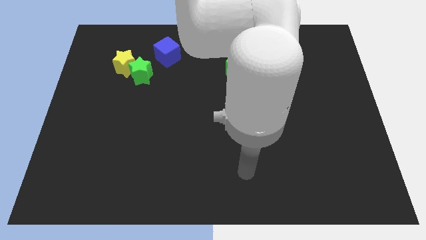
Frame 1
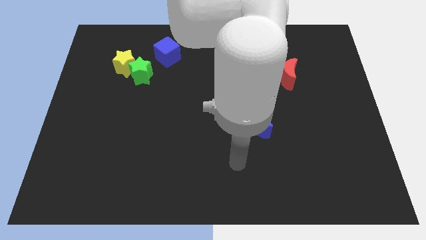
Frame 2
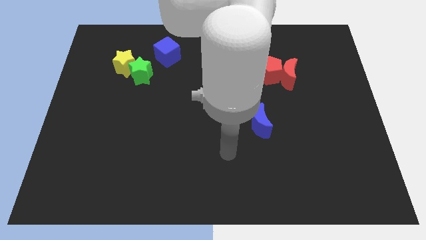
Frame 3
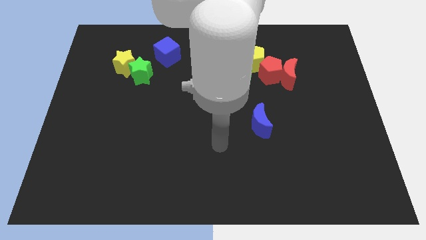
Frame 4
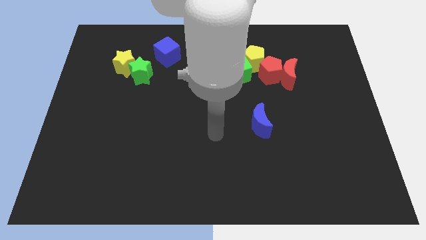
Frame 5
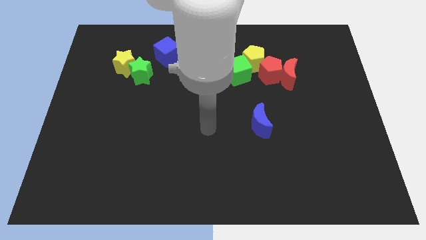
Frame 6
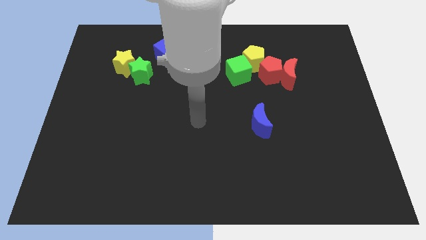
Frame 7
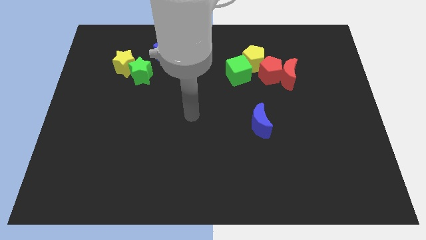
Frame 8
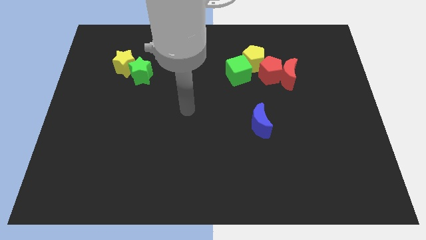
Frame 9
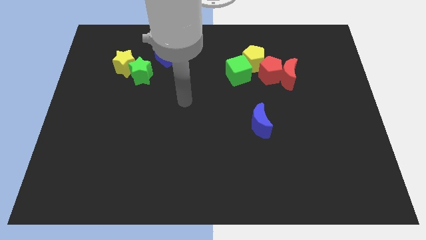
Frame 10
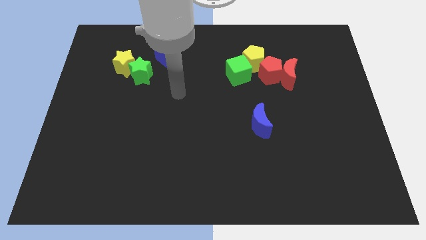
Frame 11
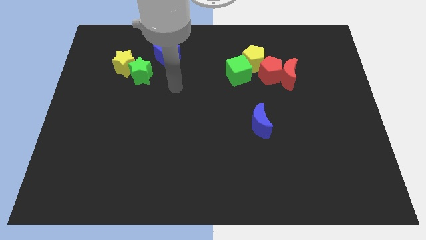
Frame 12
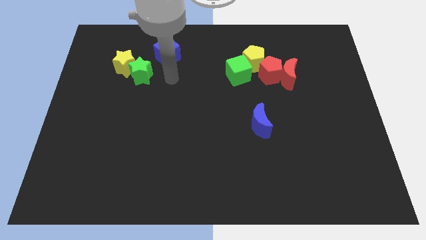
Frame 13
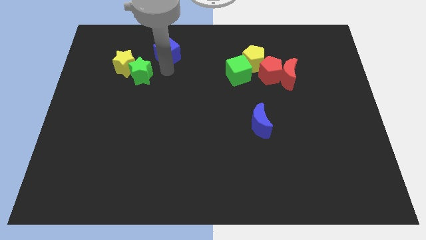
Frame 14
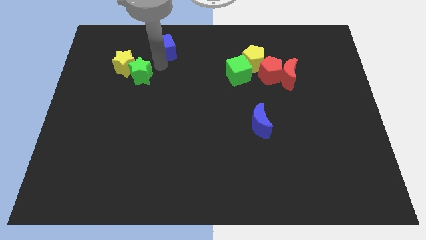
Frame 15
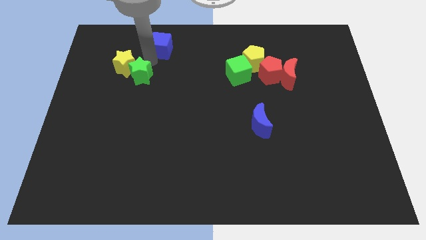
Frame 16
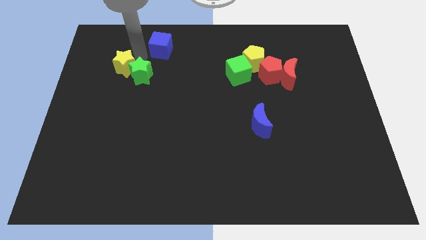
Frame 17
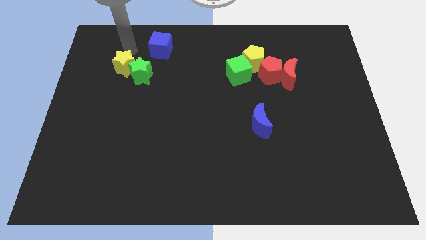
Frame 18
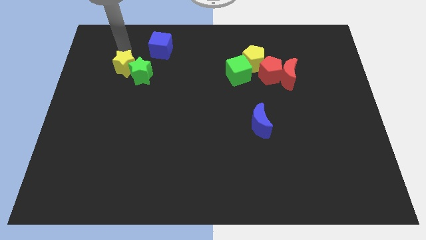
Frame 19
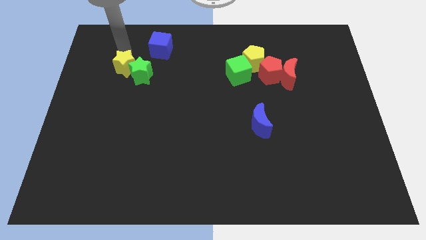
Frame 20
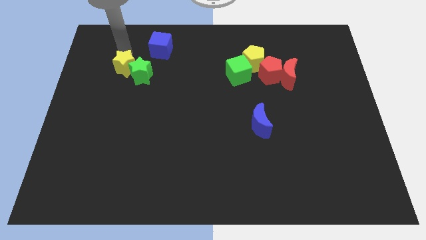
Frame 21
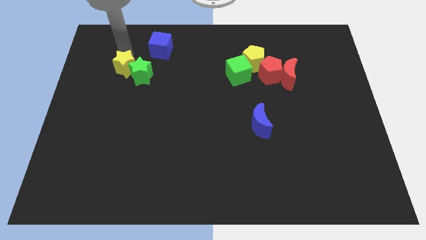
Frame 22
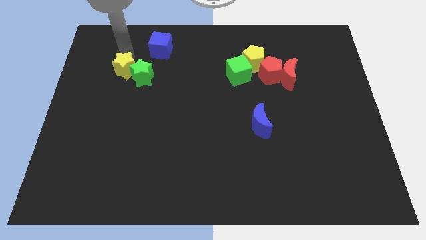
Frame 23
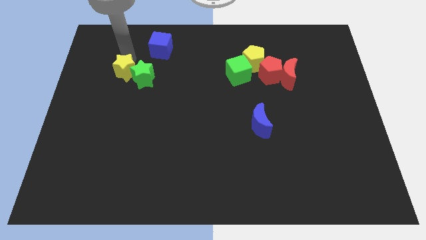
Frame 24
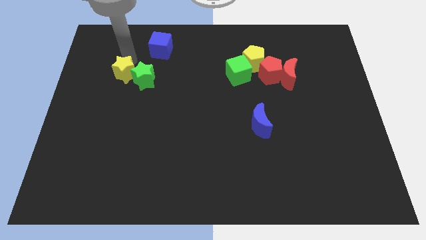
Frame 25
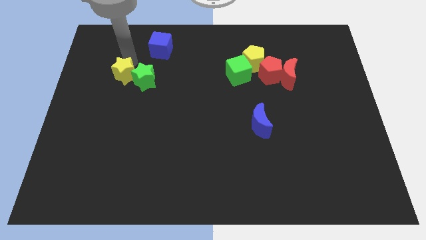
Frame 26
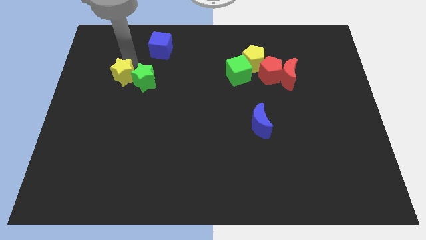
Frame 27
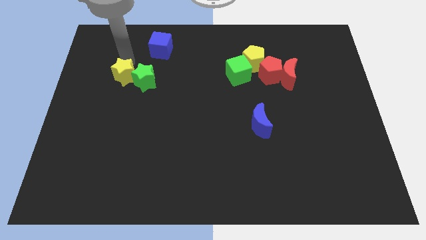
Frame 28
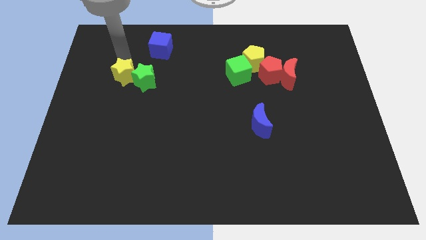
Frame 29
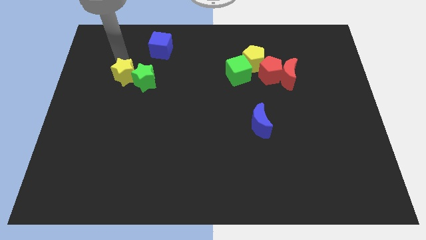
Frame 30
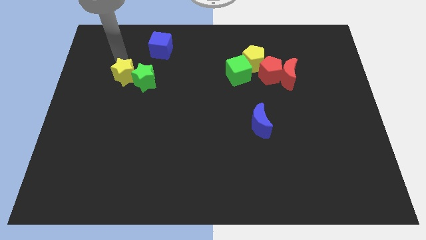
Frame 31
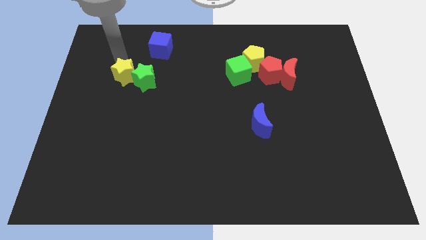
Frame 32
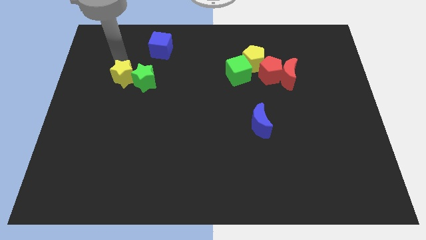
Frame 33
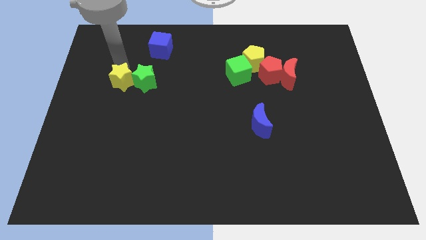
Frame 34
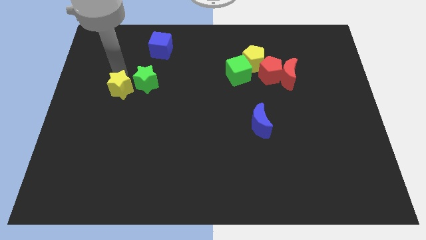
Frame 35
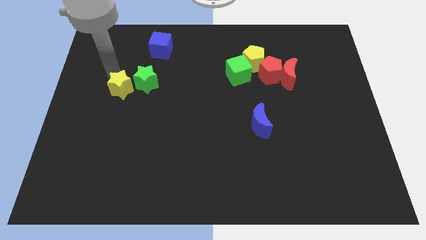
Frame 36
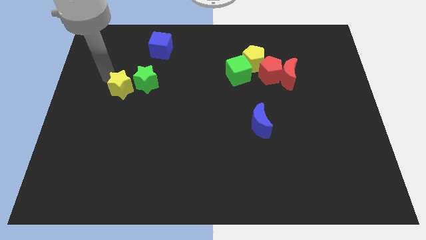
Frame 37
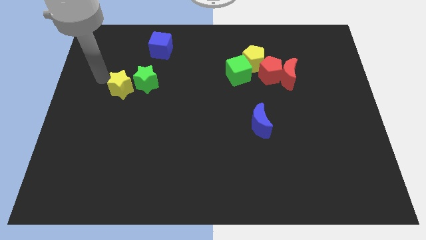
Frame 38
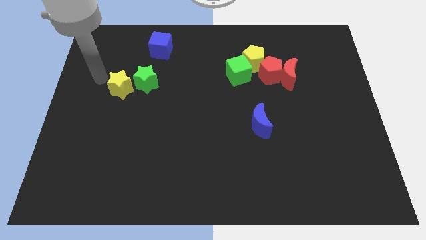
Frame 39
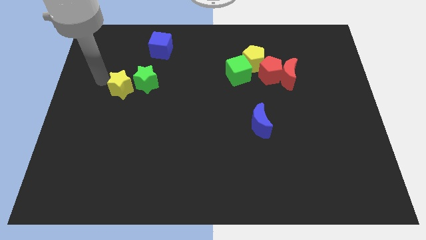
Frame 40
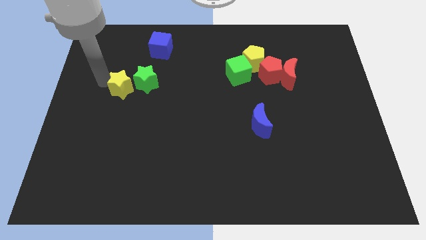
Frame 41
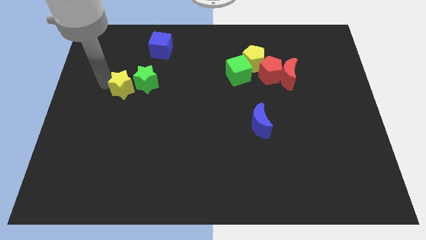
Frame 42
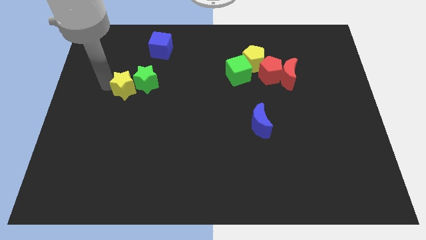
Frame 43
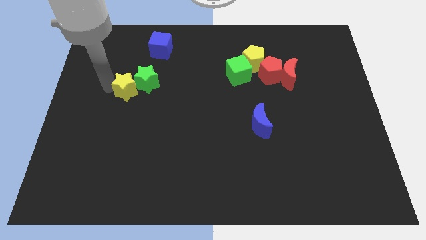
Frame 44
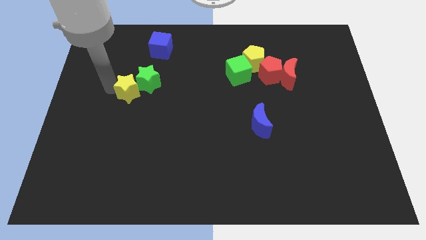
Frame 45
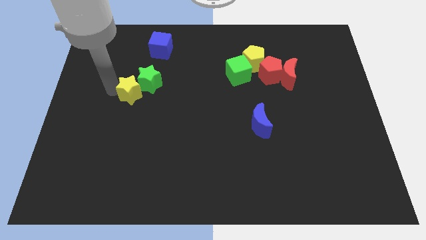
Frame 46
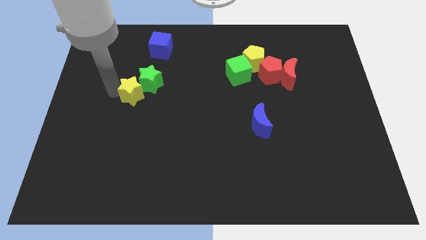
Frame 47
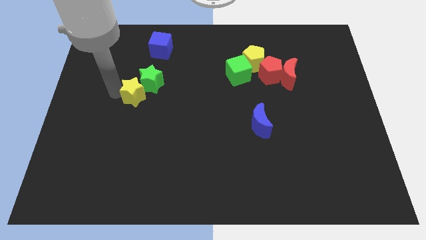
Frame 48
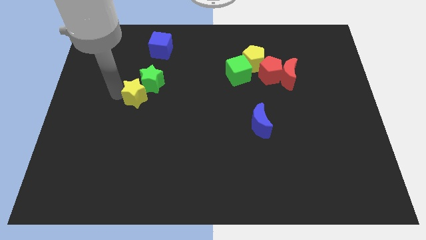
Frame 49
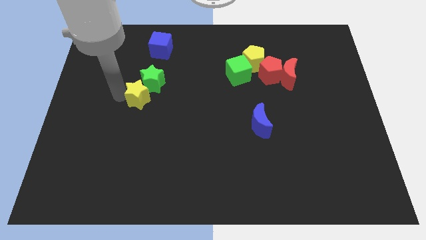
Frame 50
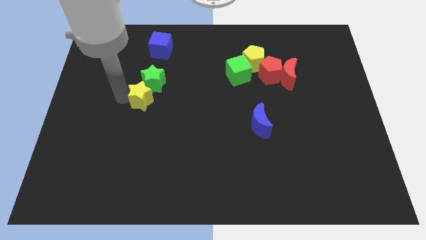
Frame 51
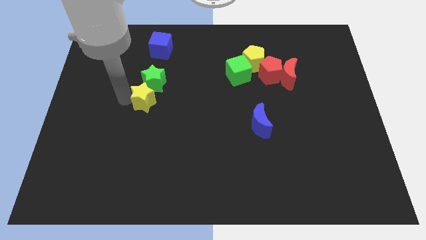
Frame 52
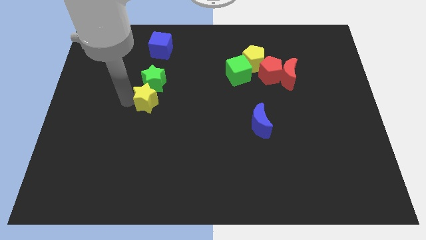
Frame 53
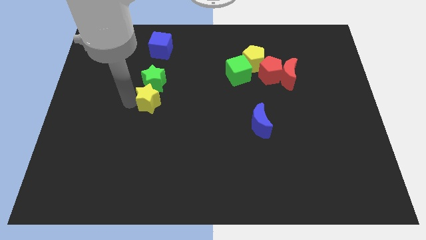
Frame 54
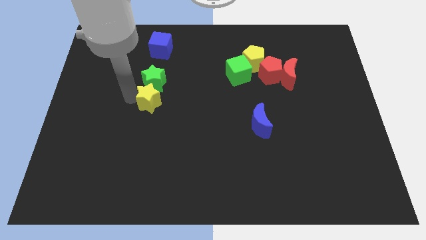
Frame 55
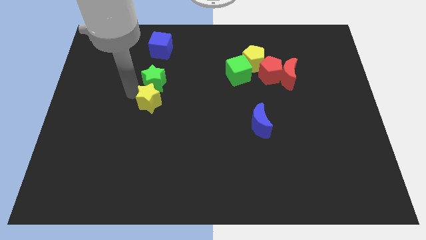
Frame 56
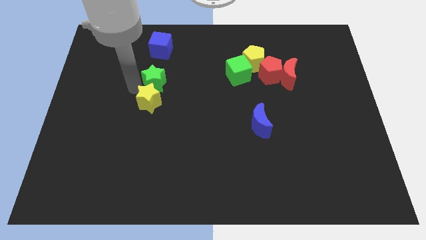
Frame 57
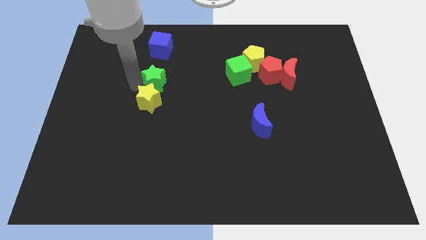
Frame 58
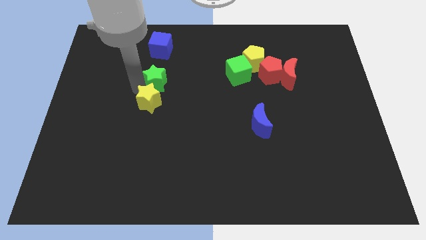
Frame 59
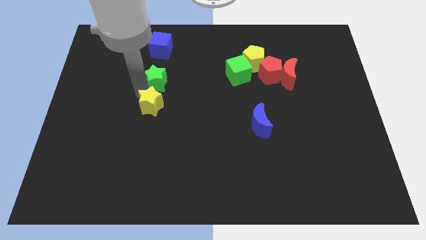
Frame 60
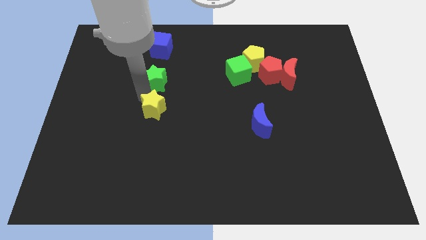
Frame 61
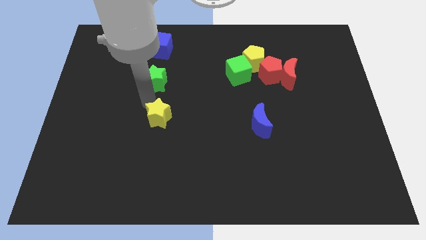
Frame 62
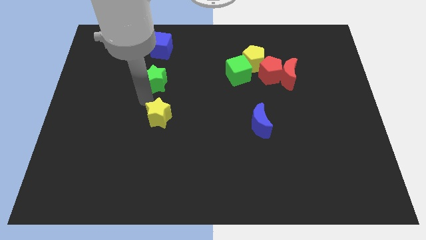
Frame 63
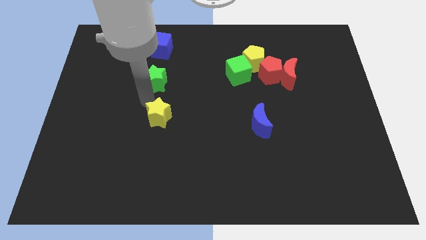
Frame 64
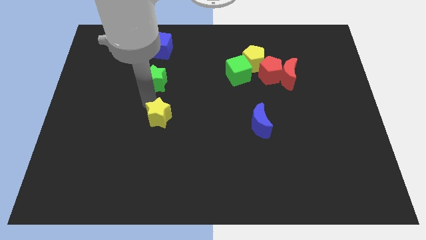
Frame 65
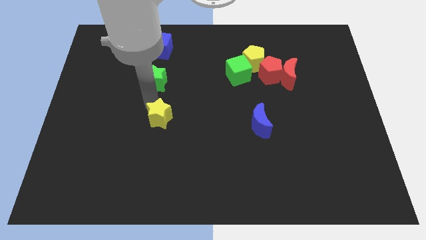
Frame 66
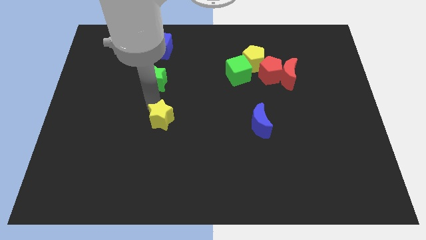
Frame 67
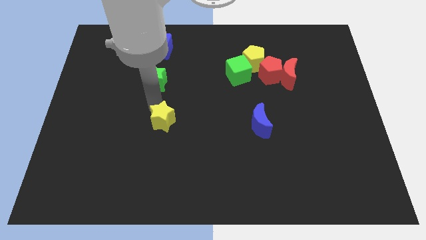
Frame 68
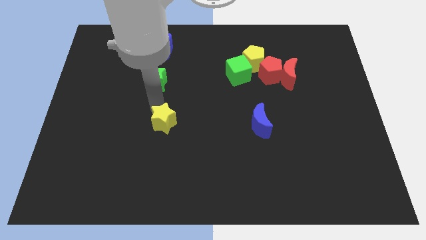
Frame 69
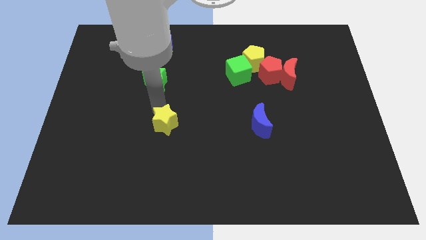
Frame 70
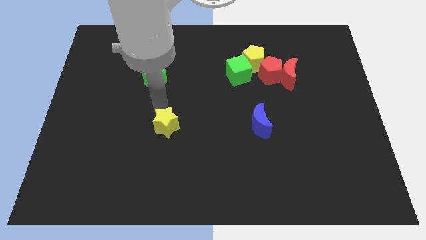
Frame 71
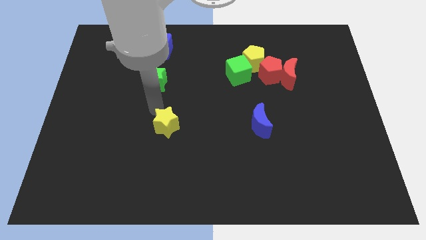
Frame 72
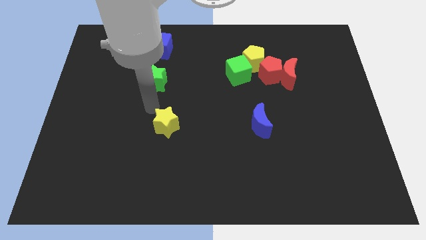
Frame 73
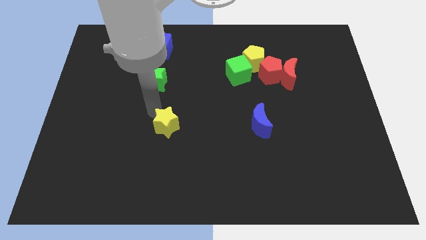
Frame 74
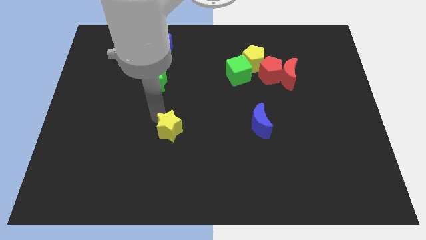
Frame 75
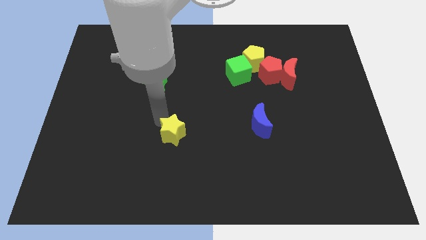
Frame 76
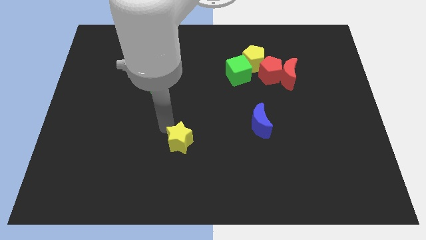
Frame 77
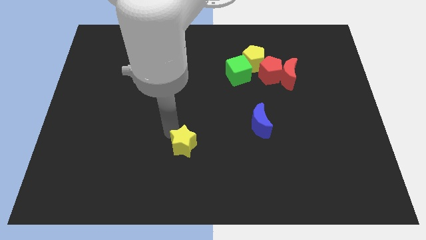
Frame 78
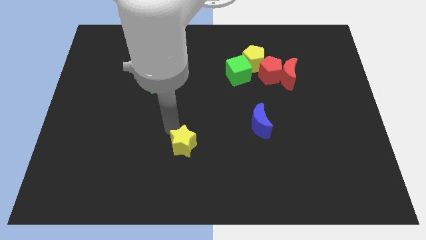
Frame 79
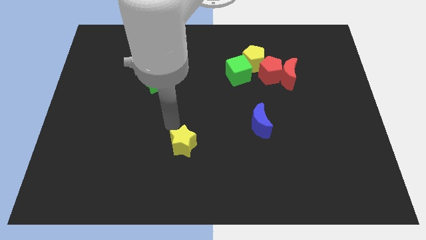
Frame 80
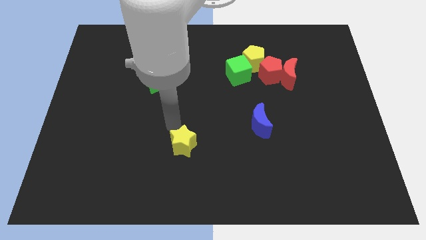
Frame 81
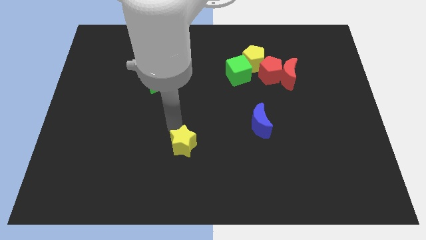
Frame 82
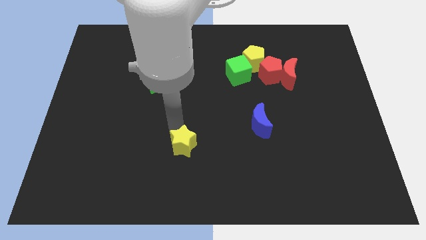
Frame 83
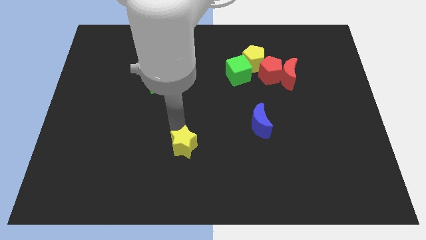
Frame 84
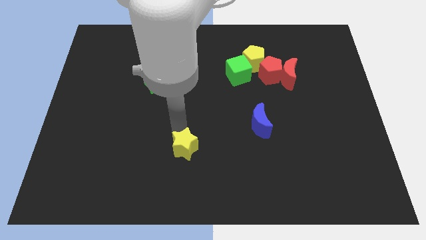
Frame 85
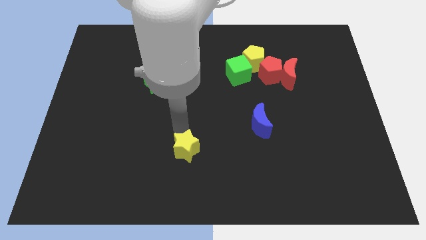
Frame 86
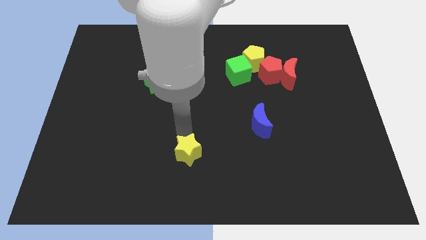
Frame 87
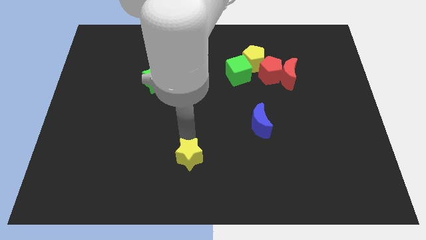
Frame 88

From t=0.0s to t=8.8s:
push the yellow star to the bottom side
